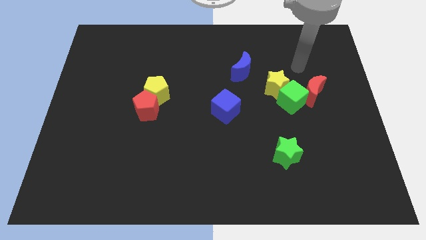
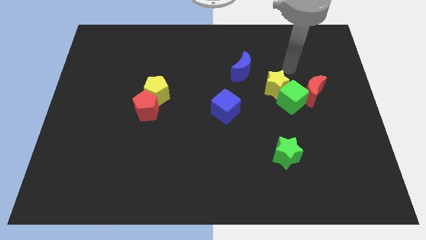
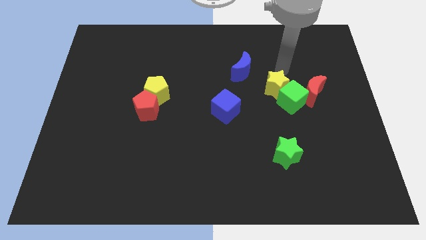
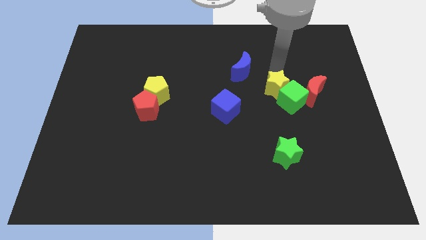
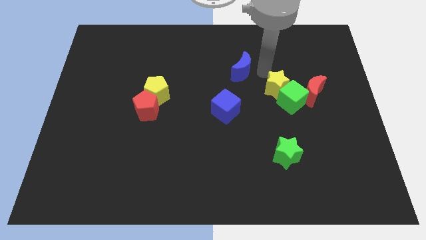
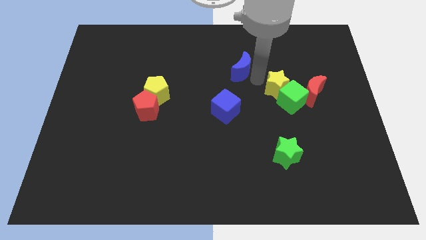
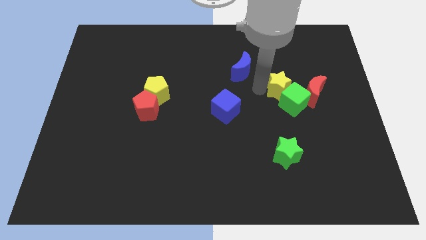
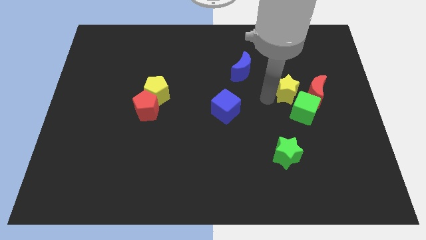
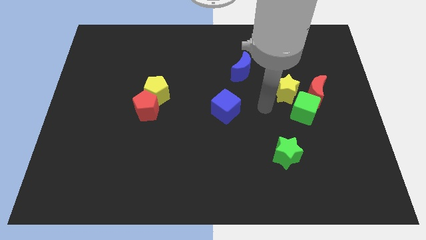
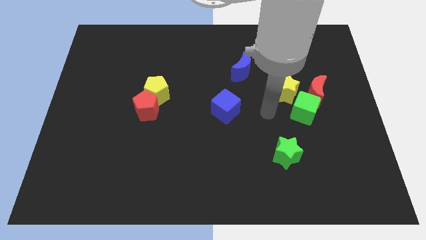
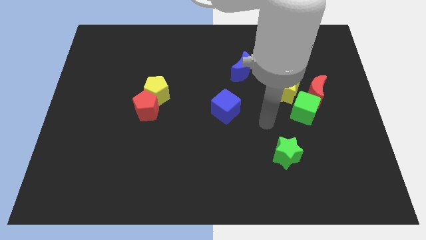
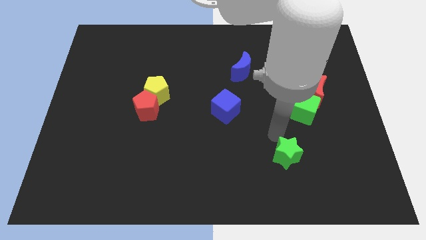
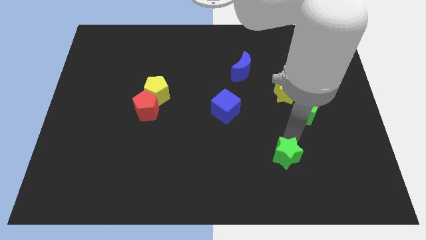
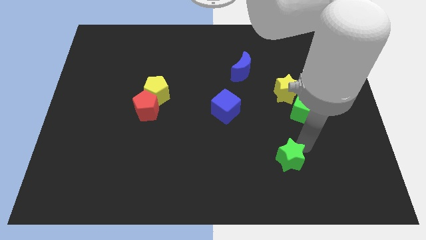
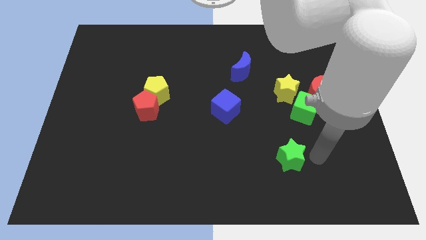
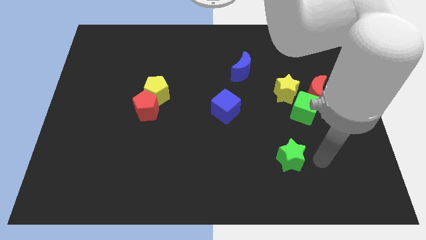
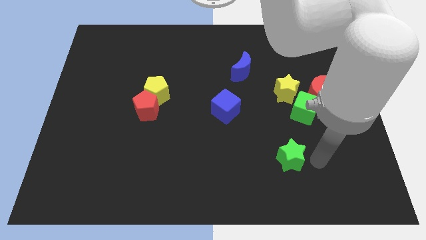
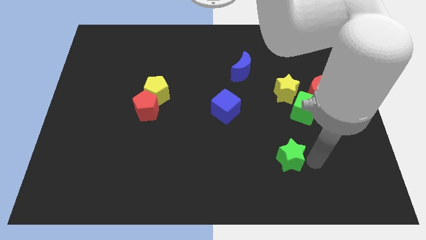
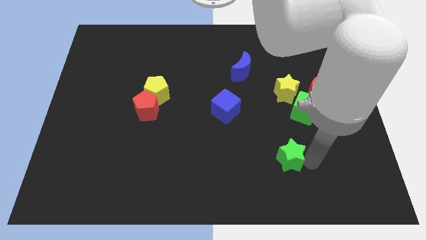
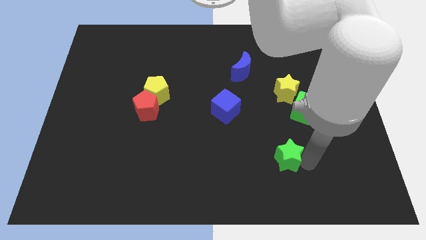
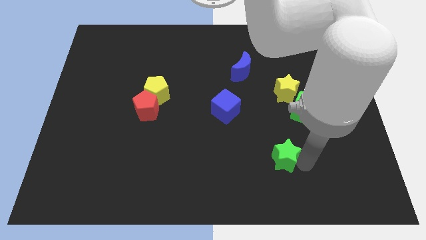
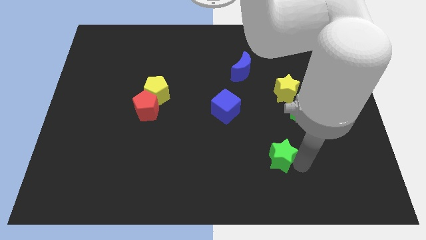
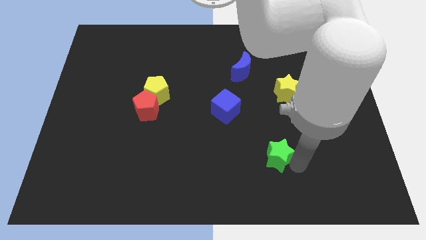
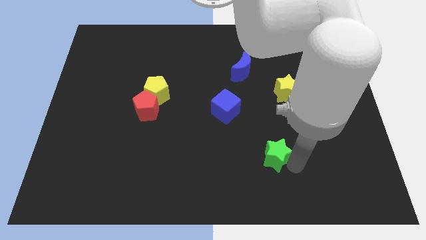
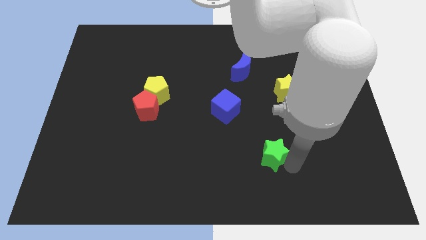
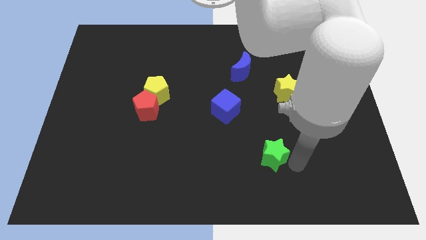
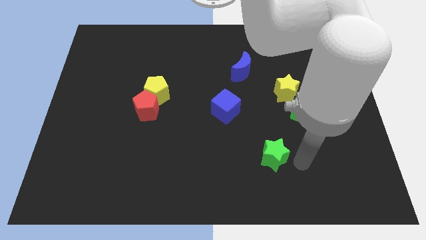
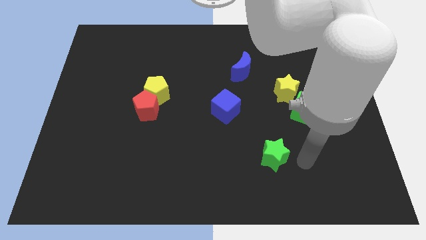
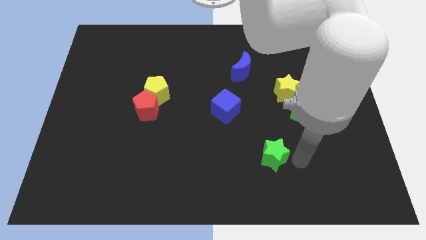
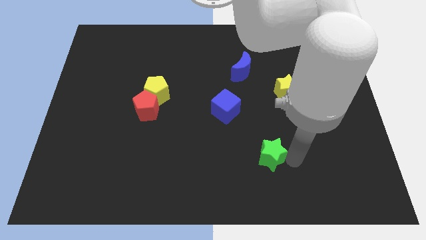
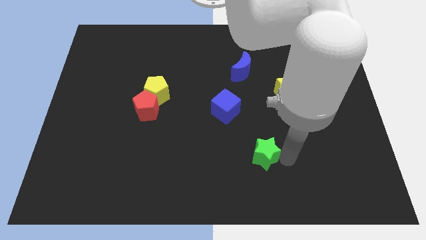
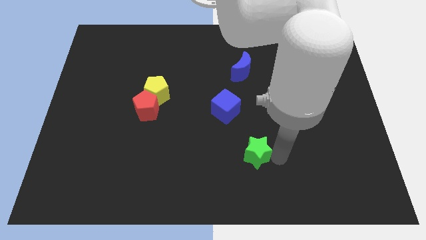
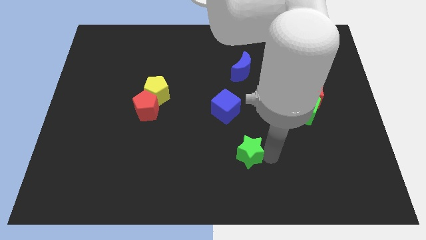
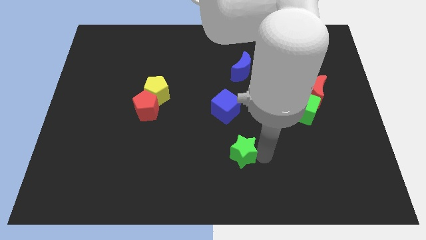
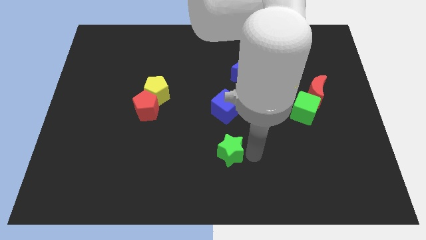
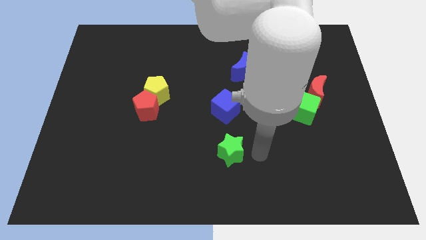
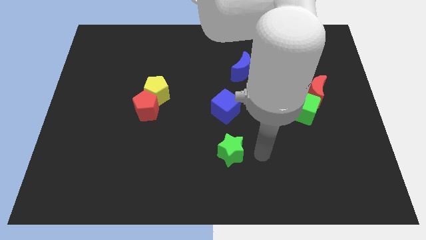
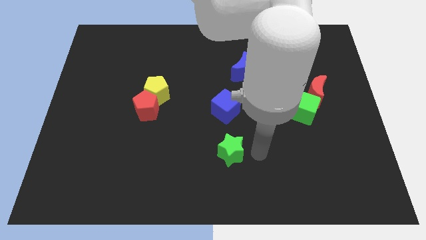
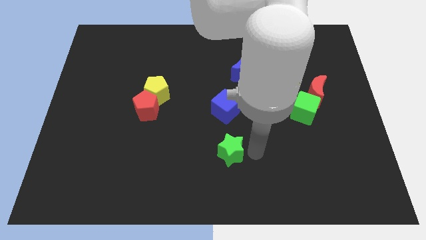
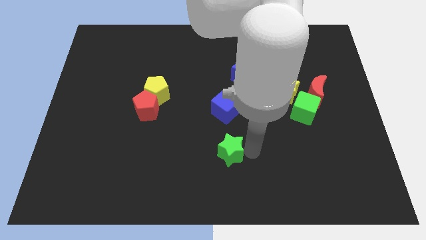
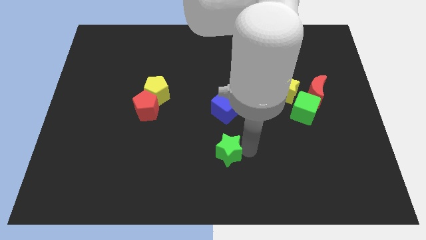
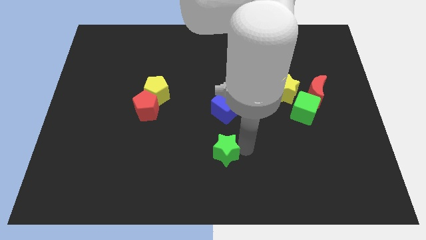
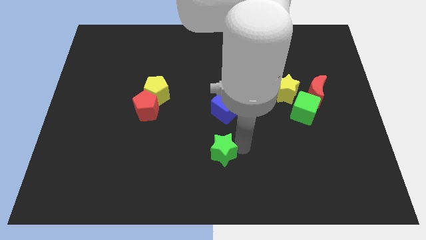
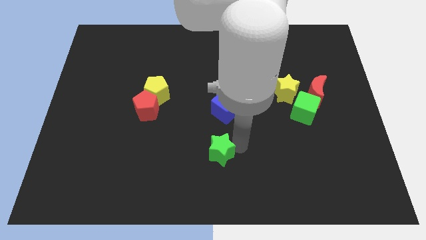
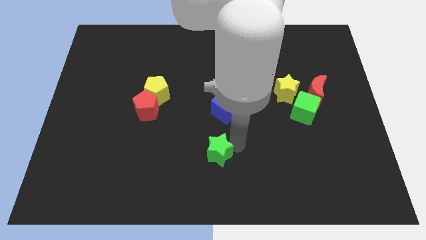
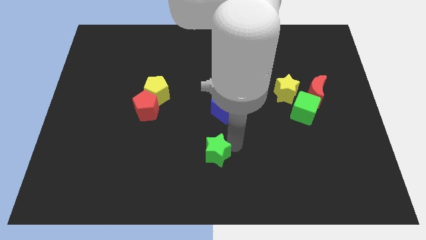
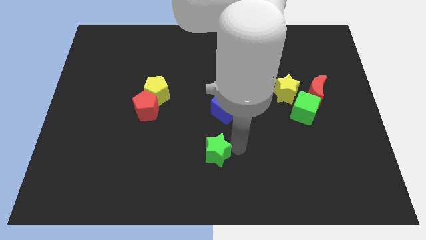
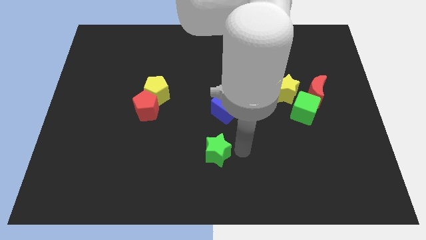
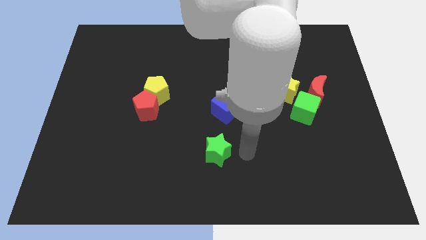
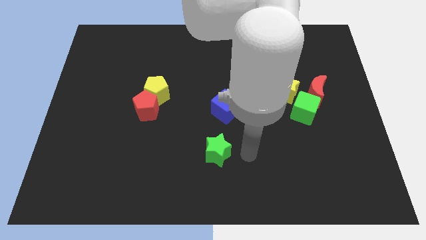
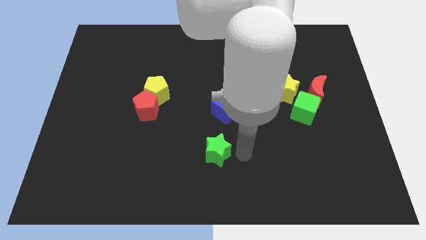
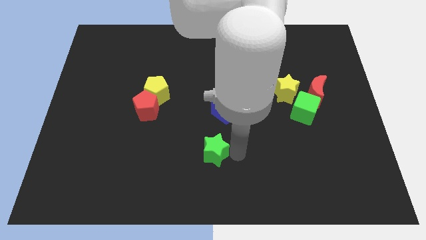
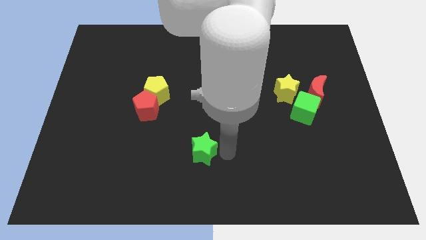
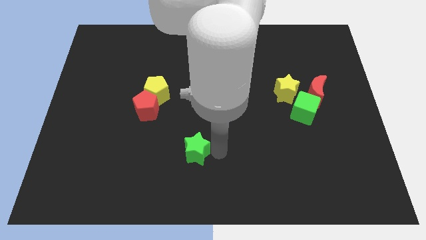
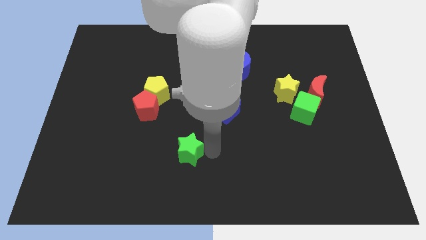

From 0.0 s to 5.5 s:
move the green star left

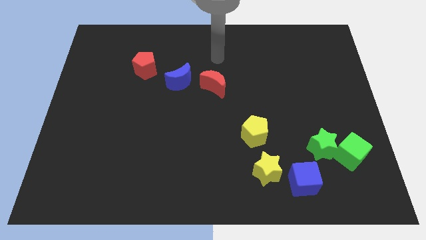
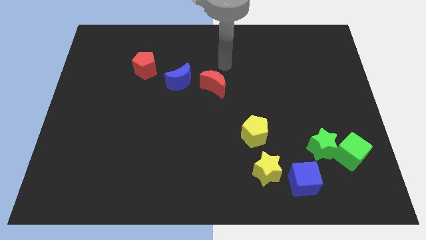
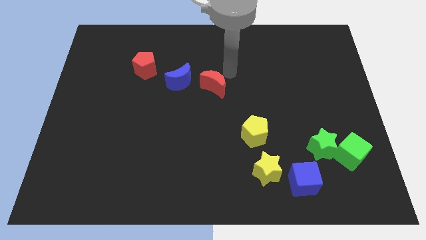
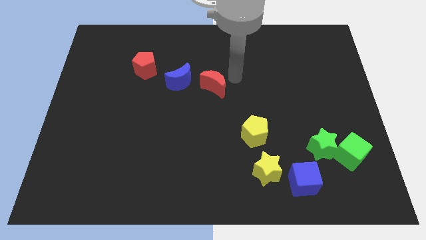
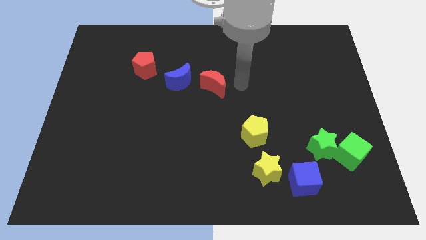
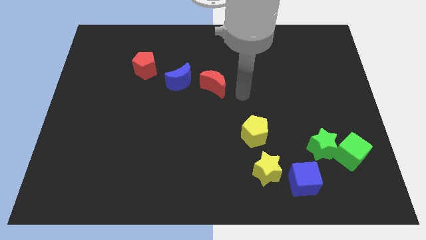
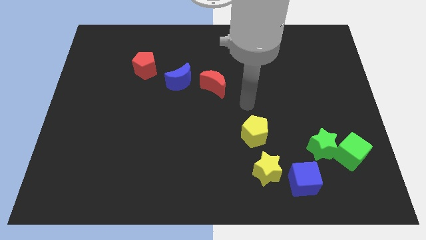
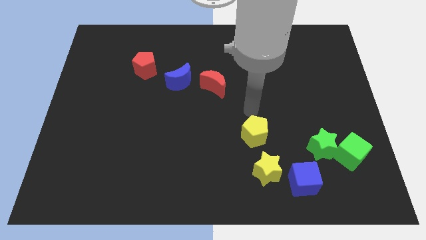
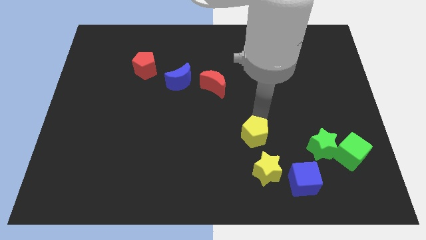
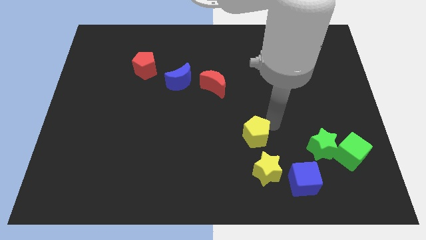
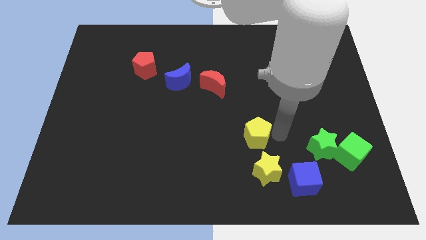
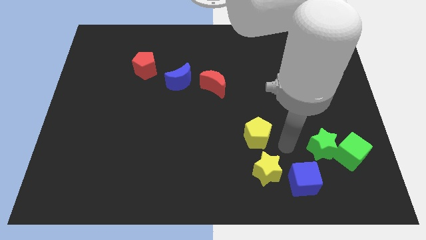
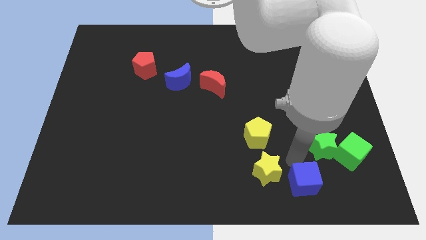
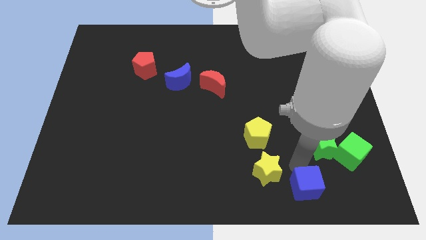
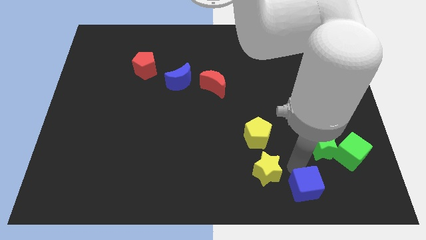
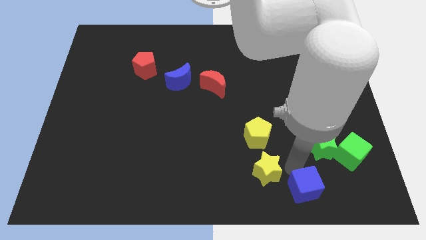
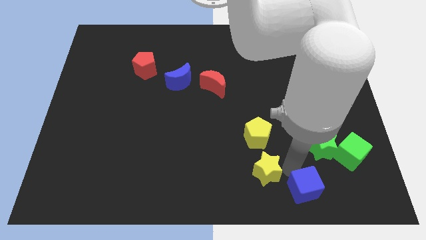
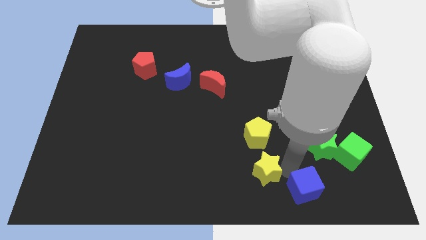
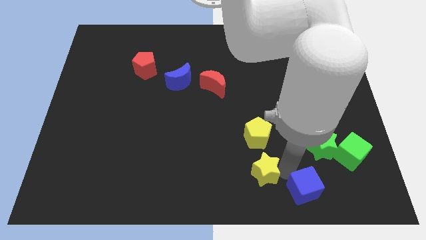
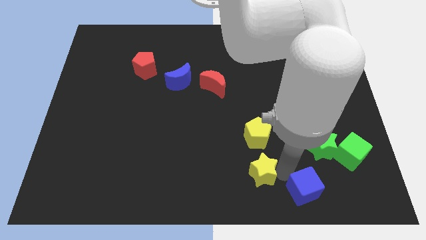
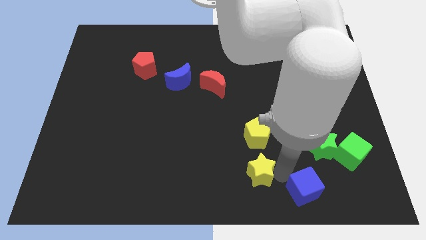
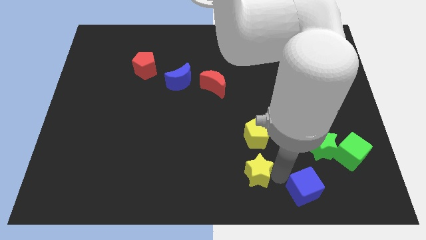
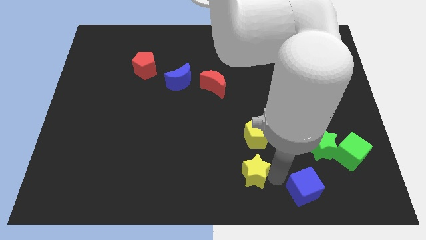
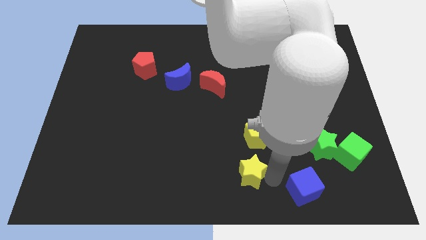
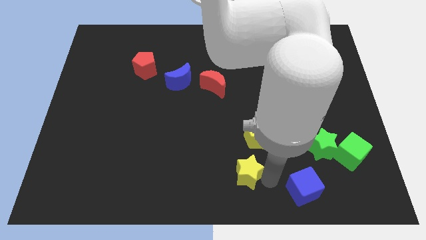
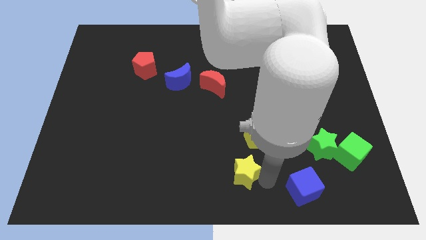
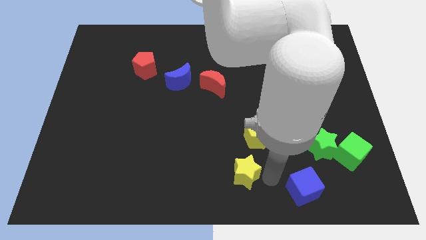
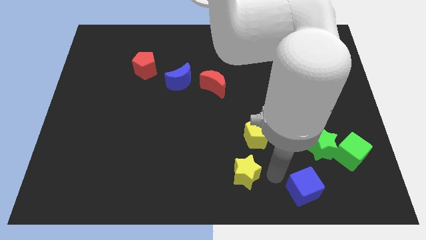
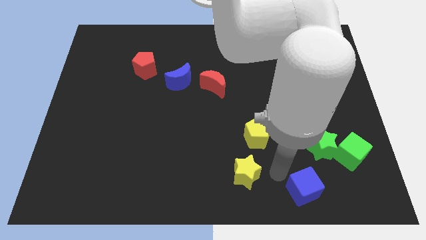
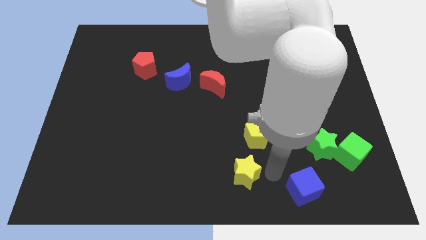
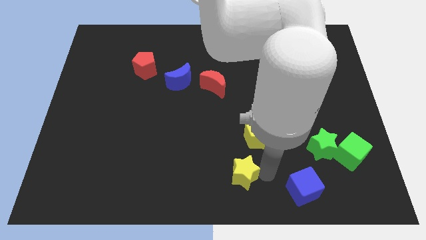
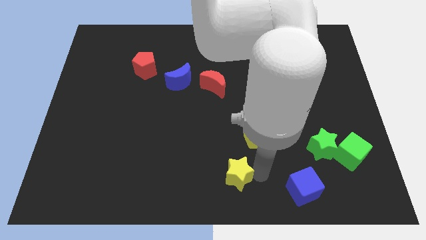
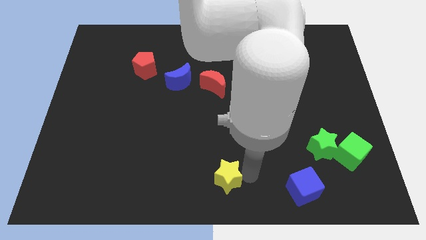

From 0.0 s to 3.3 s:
slightly push the yellow star left
